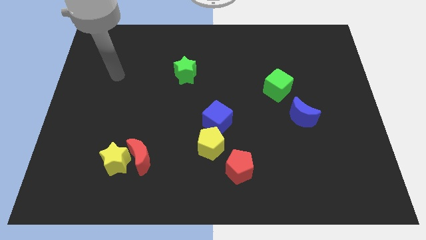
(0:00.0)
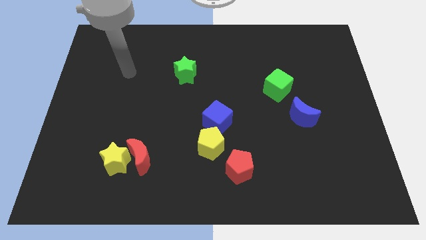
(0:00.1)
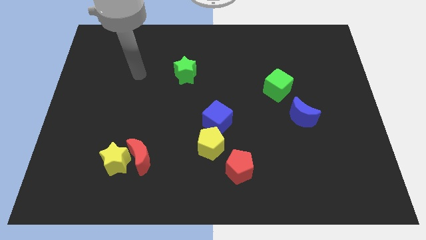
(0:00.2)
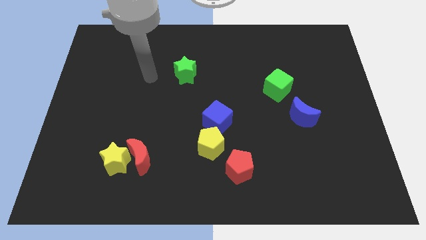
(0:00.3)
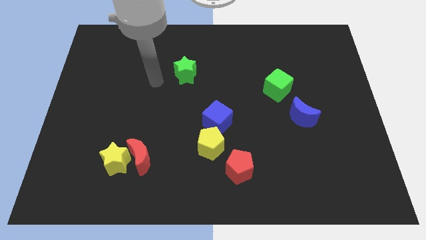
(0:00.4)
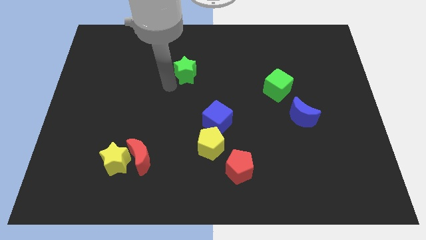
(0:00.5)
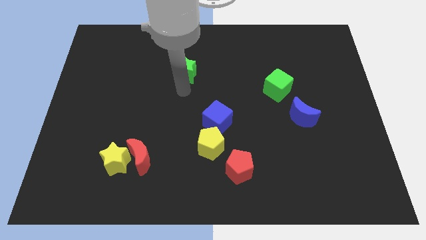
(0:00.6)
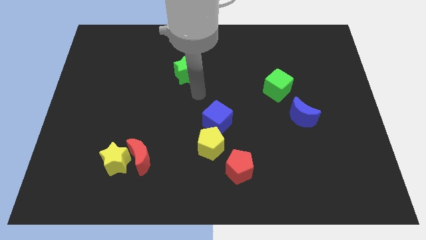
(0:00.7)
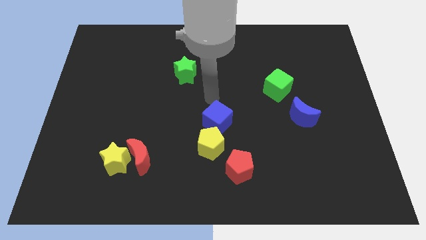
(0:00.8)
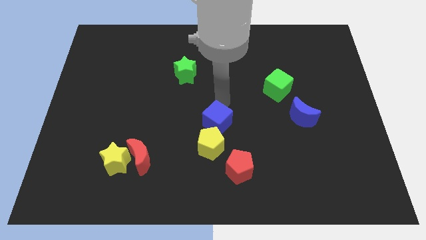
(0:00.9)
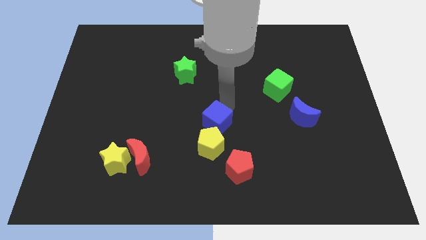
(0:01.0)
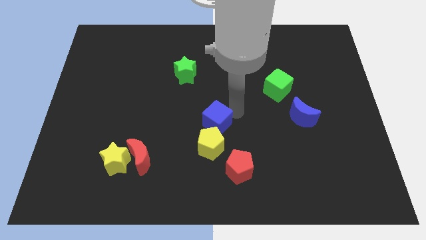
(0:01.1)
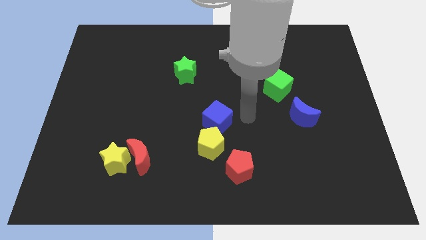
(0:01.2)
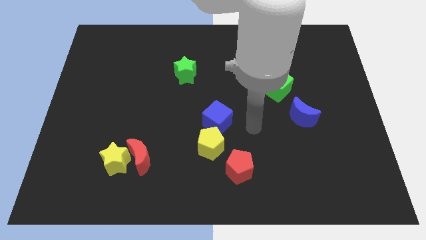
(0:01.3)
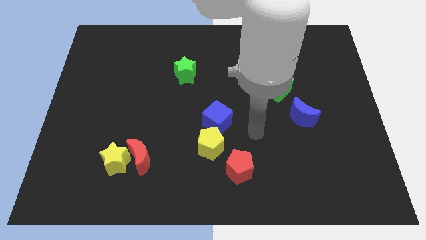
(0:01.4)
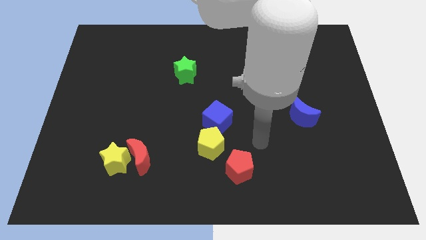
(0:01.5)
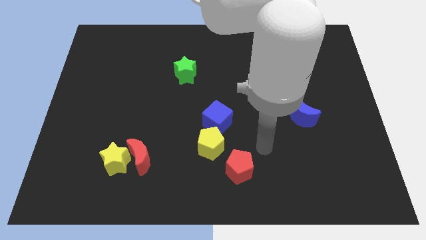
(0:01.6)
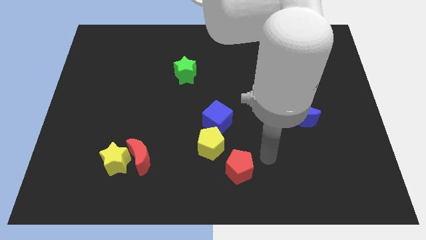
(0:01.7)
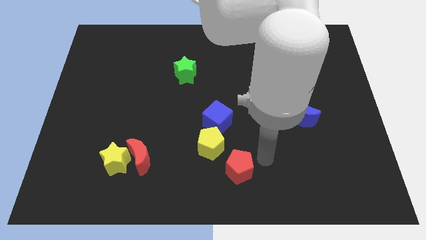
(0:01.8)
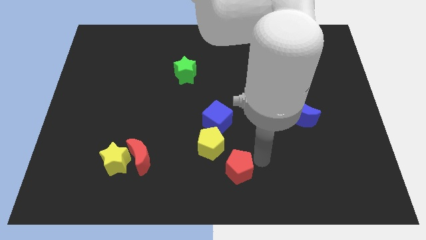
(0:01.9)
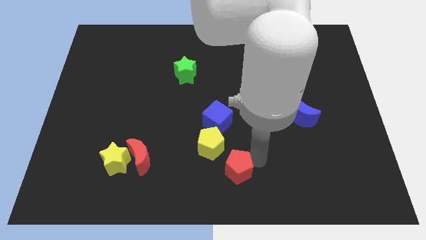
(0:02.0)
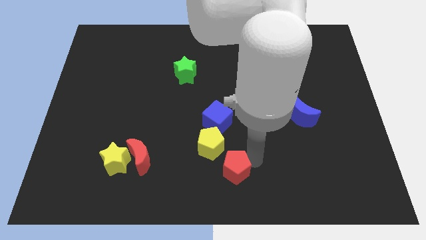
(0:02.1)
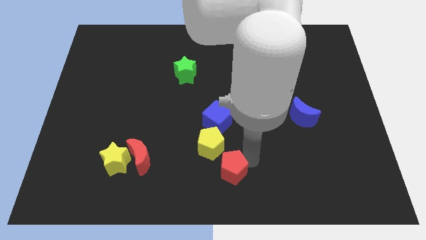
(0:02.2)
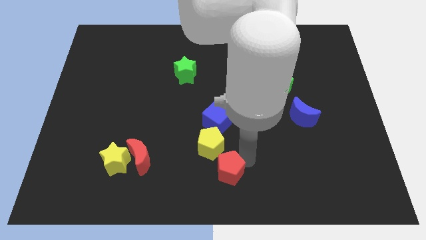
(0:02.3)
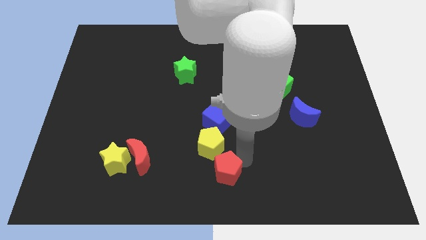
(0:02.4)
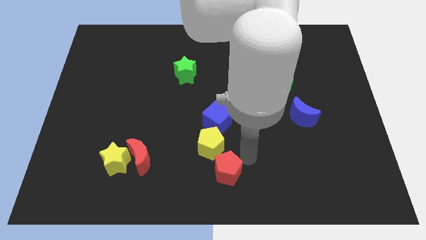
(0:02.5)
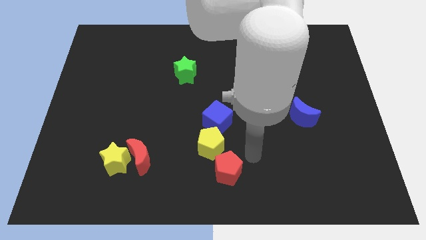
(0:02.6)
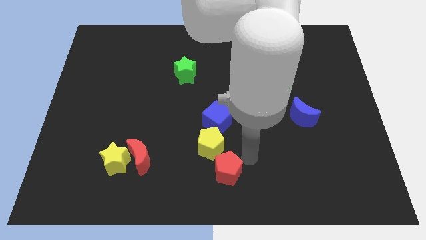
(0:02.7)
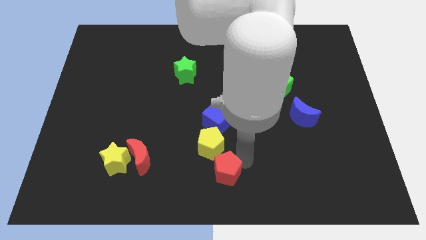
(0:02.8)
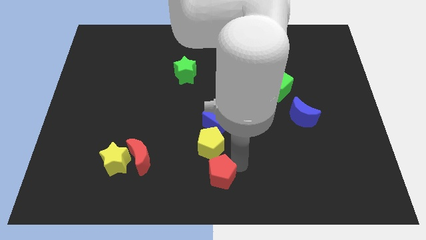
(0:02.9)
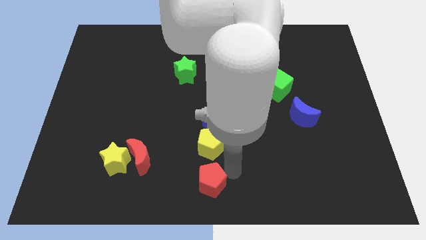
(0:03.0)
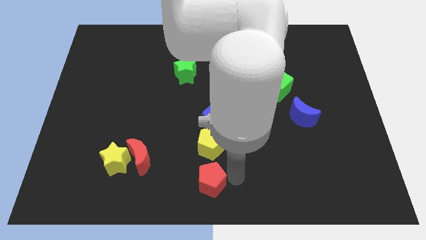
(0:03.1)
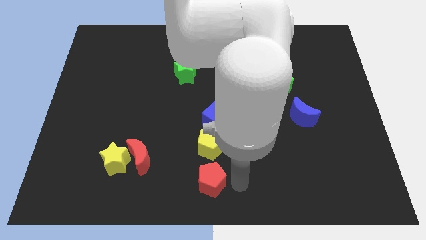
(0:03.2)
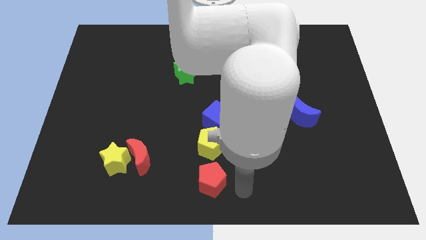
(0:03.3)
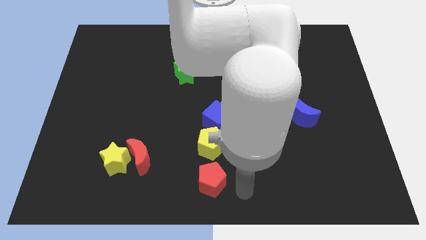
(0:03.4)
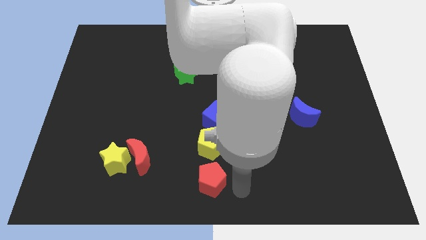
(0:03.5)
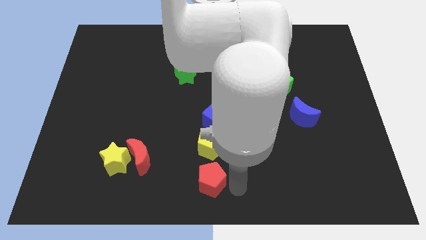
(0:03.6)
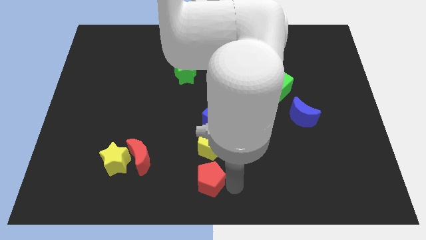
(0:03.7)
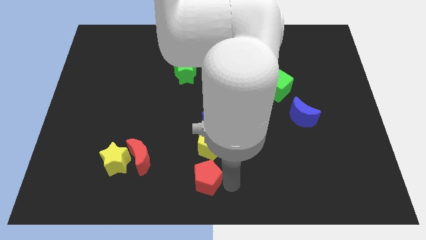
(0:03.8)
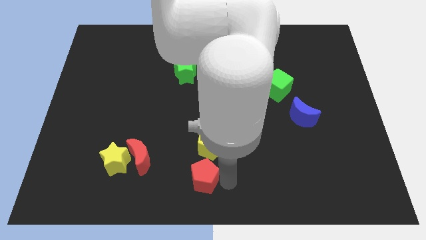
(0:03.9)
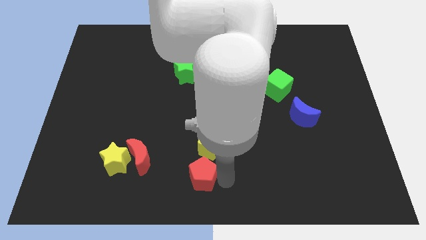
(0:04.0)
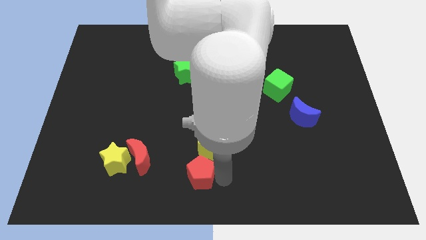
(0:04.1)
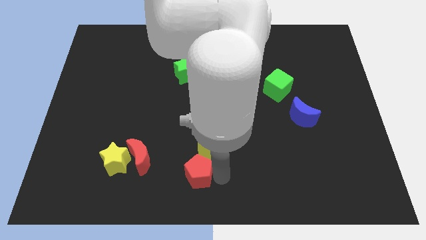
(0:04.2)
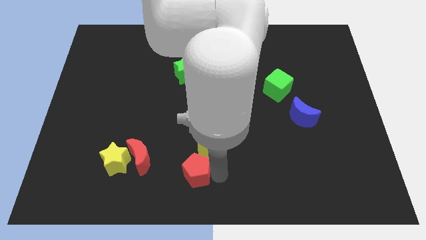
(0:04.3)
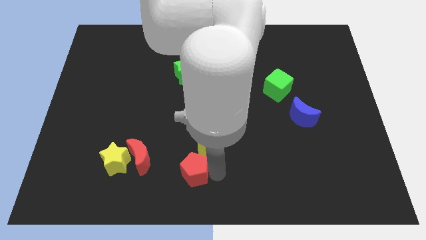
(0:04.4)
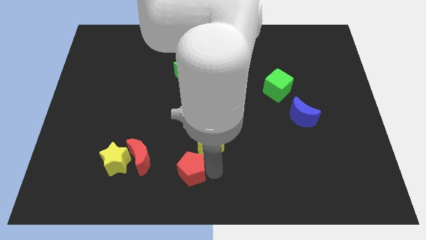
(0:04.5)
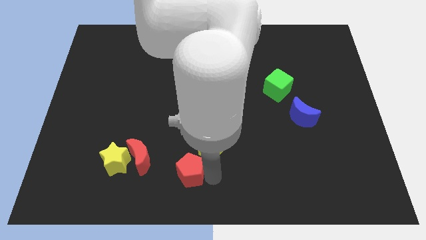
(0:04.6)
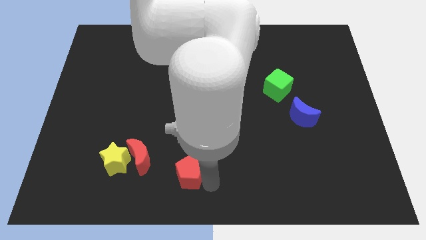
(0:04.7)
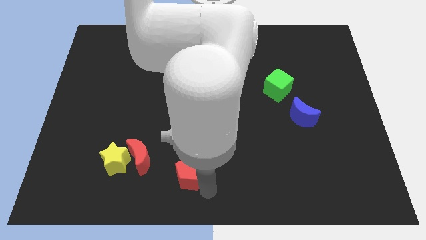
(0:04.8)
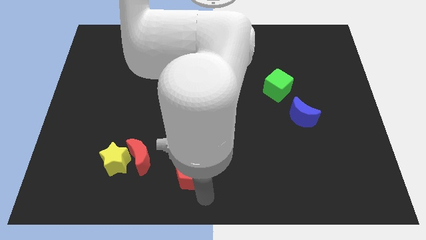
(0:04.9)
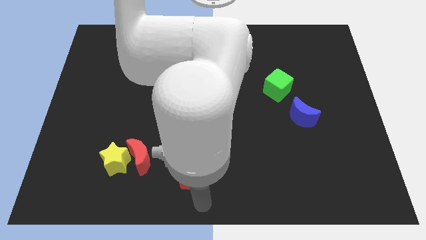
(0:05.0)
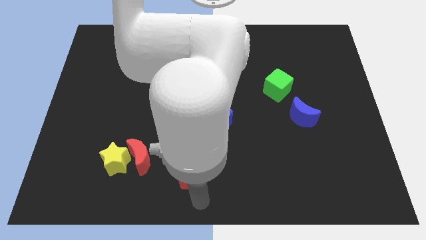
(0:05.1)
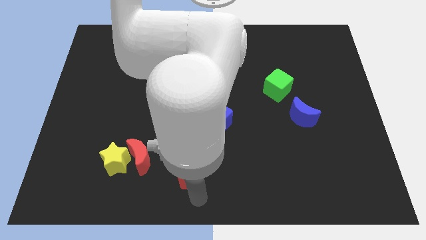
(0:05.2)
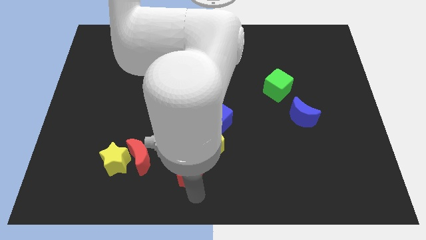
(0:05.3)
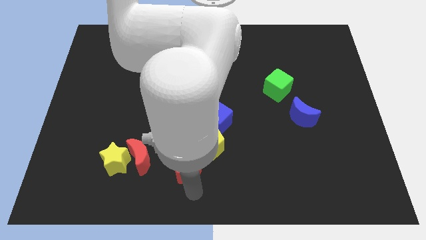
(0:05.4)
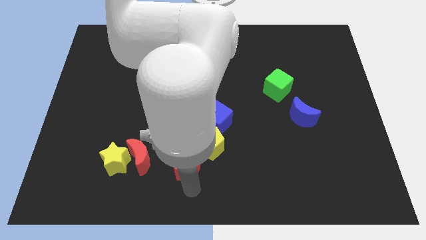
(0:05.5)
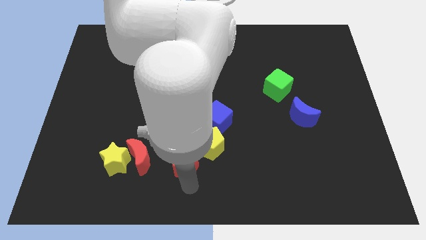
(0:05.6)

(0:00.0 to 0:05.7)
slightly slide the red pentagon upwards and to the left

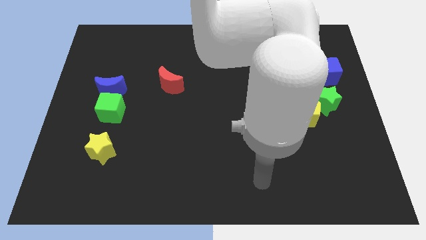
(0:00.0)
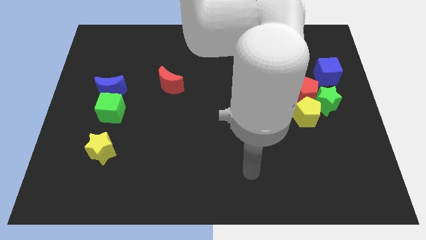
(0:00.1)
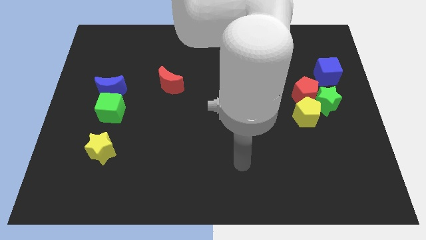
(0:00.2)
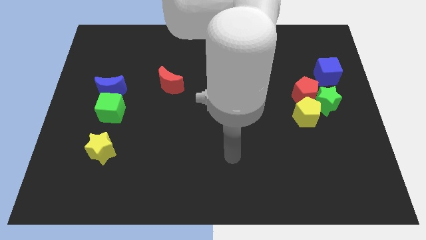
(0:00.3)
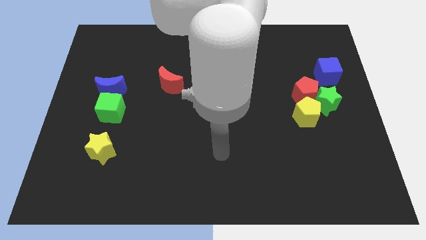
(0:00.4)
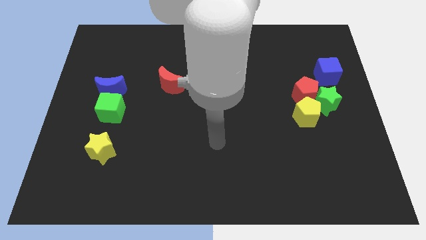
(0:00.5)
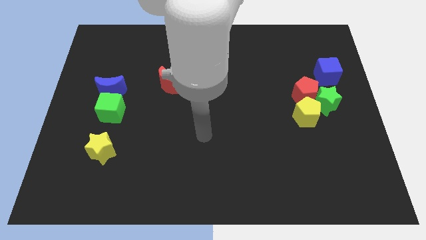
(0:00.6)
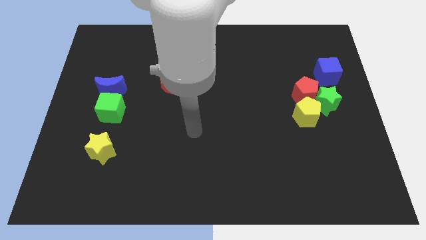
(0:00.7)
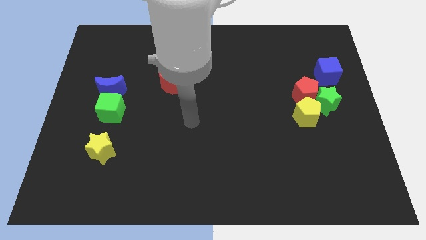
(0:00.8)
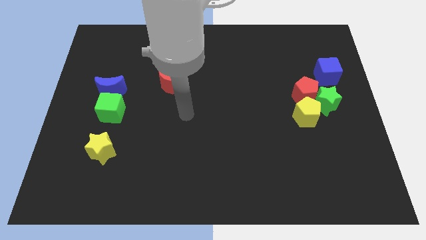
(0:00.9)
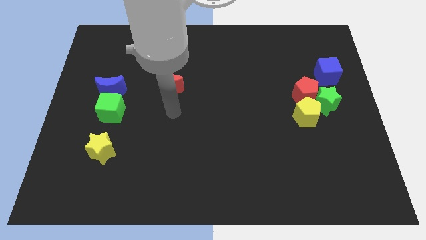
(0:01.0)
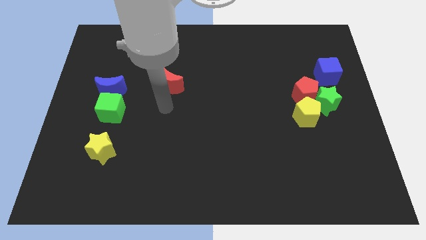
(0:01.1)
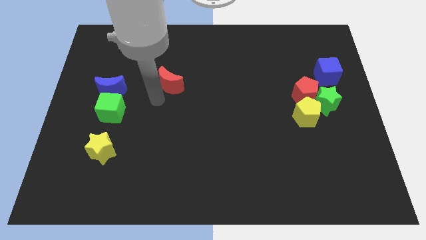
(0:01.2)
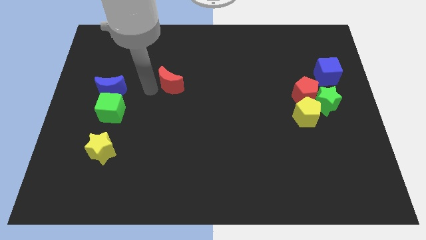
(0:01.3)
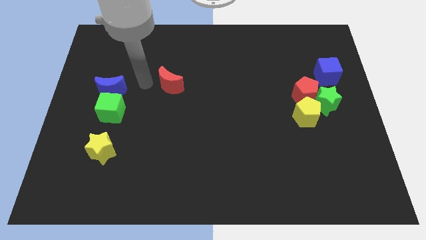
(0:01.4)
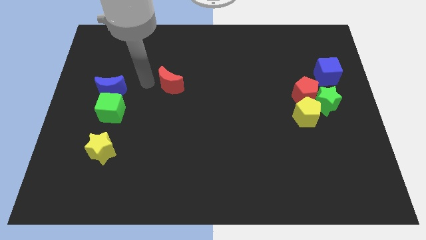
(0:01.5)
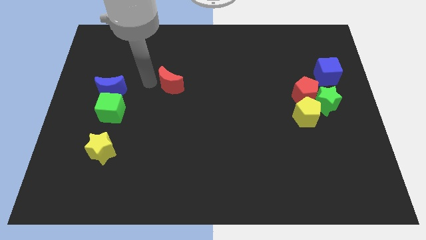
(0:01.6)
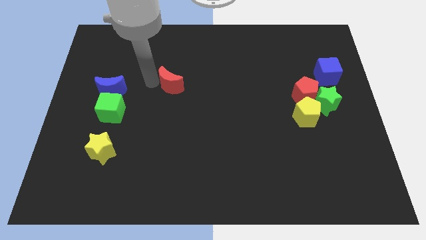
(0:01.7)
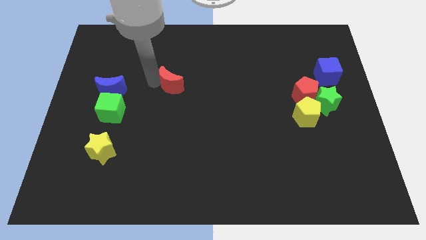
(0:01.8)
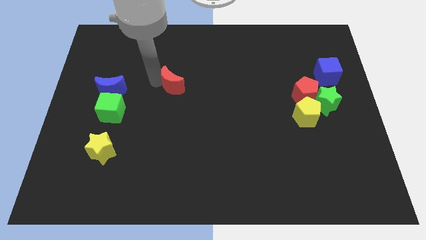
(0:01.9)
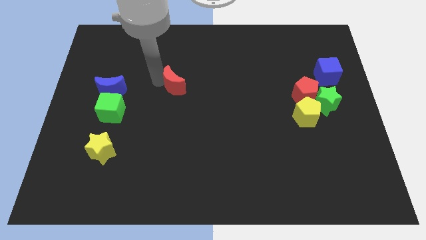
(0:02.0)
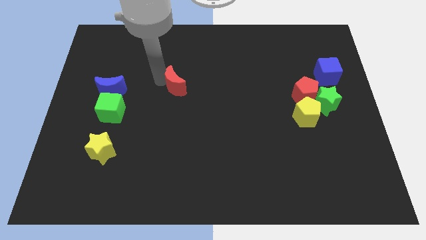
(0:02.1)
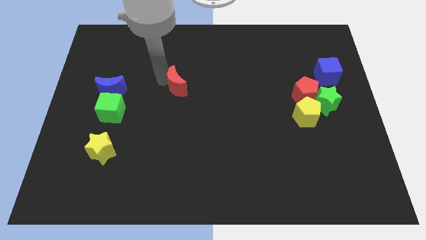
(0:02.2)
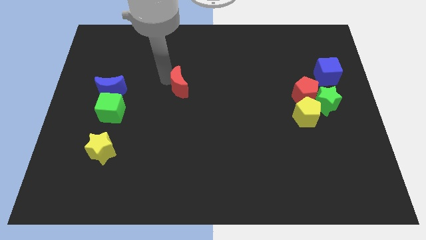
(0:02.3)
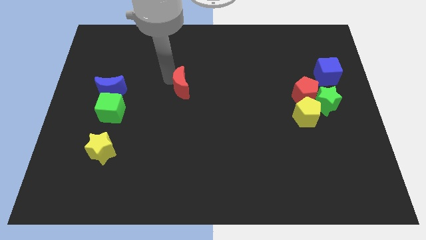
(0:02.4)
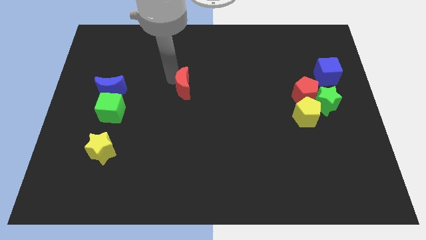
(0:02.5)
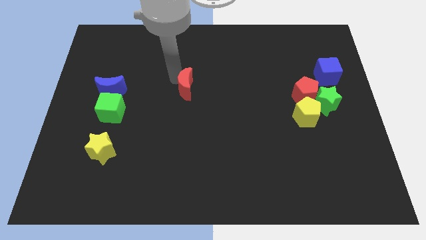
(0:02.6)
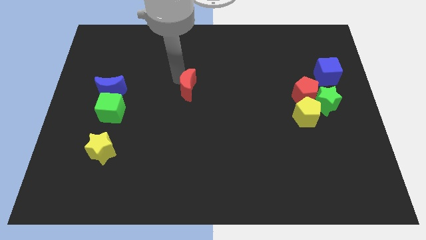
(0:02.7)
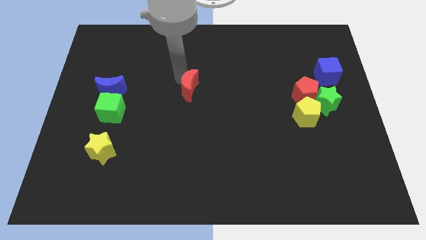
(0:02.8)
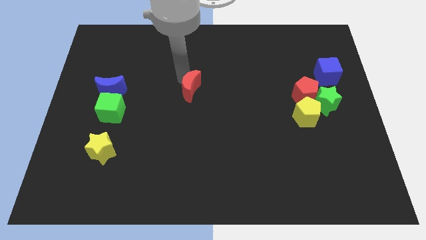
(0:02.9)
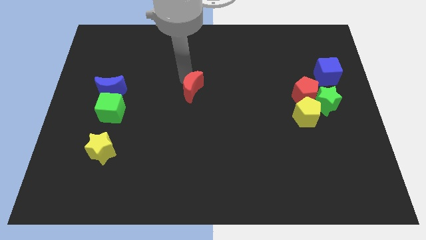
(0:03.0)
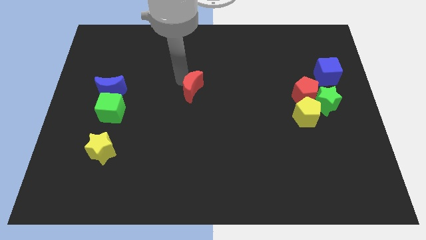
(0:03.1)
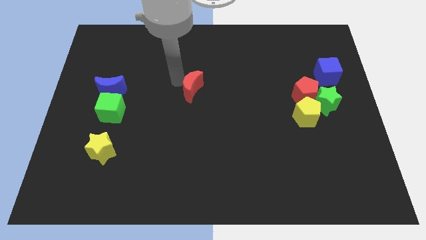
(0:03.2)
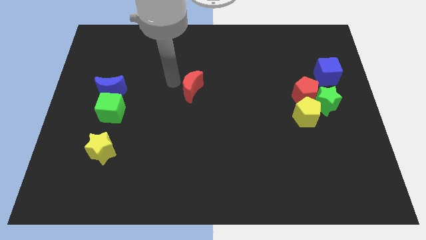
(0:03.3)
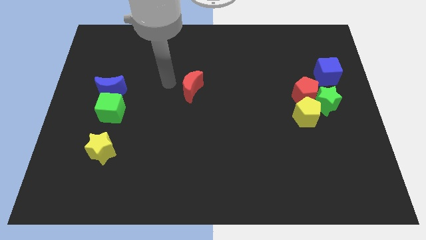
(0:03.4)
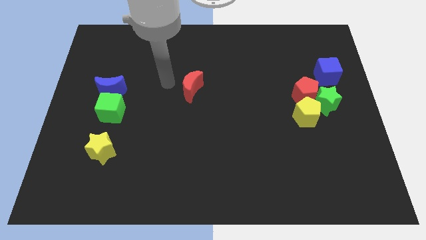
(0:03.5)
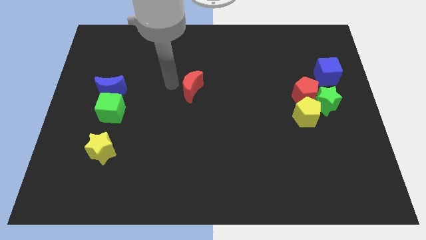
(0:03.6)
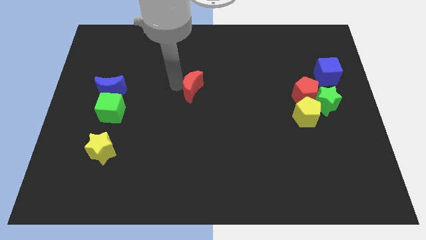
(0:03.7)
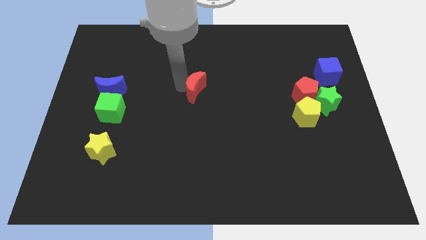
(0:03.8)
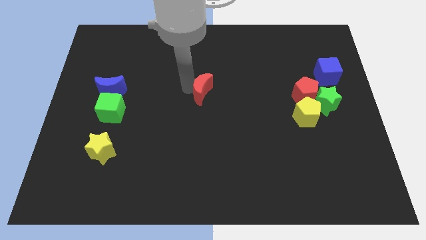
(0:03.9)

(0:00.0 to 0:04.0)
push the red moon right a little bit
